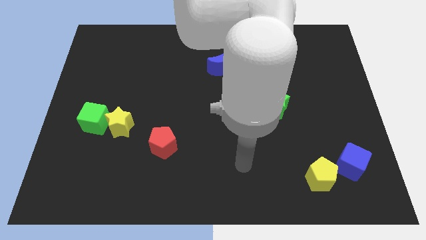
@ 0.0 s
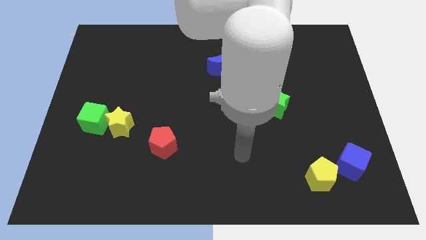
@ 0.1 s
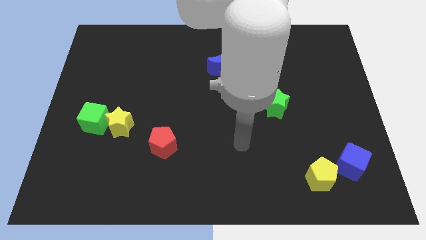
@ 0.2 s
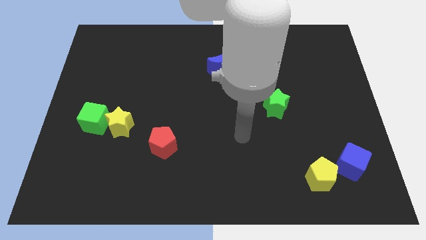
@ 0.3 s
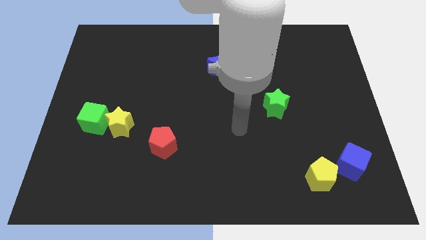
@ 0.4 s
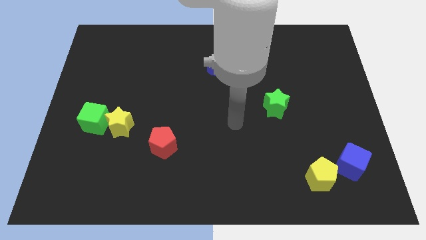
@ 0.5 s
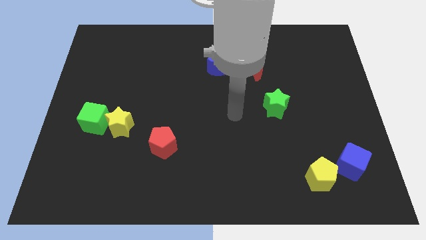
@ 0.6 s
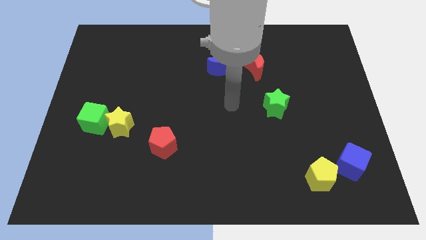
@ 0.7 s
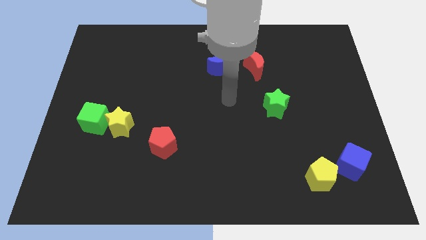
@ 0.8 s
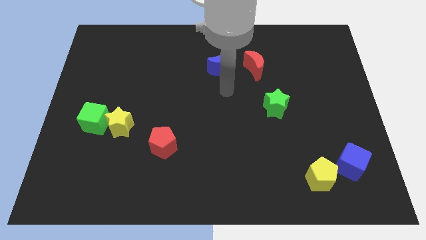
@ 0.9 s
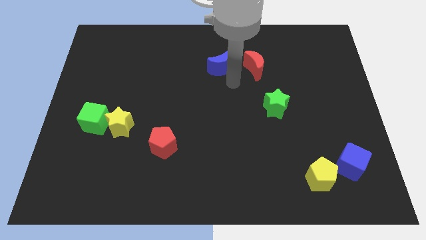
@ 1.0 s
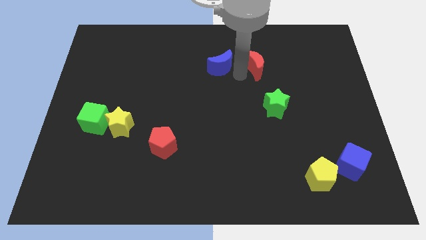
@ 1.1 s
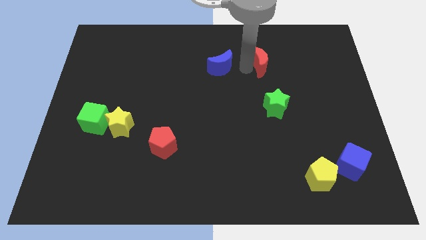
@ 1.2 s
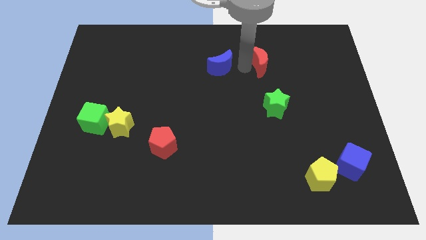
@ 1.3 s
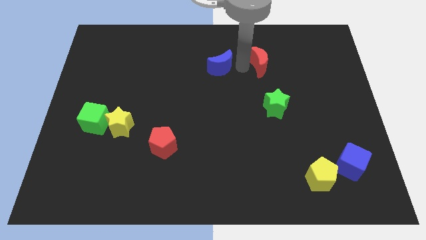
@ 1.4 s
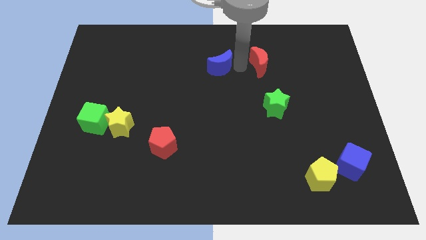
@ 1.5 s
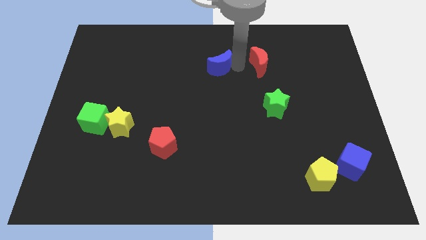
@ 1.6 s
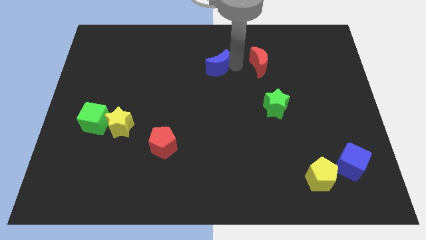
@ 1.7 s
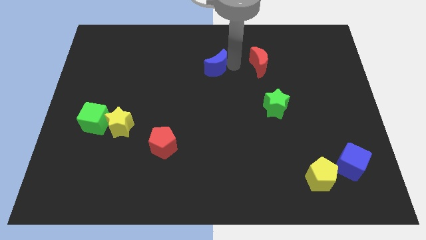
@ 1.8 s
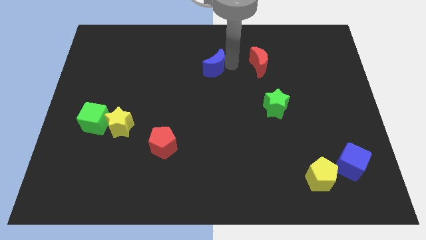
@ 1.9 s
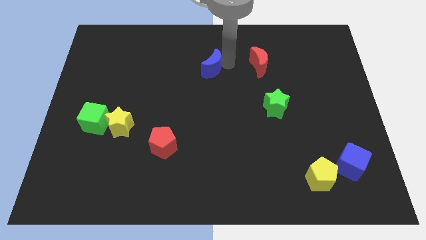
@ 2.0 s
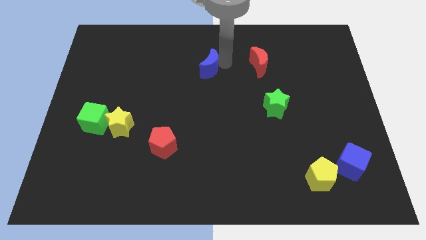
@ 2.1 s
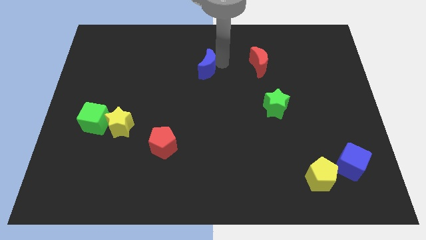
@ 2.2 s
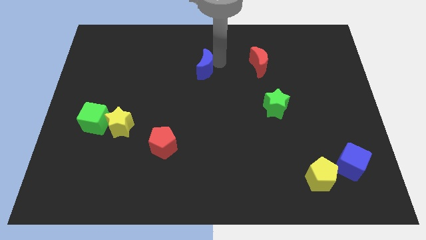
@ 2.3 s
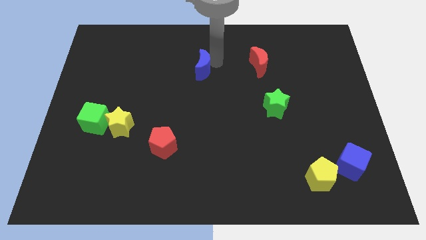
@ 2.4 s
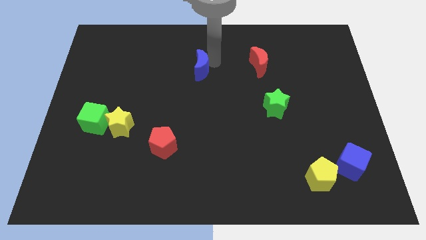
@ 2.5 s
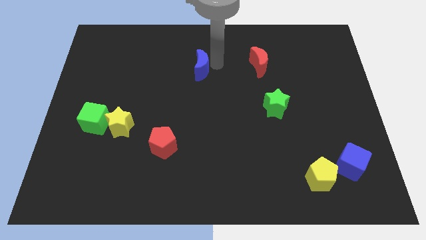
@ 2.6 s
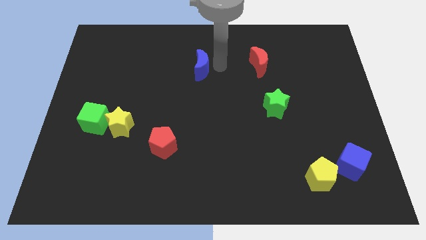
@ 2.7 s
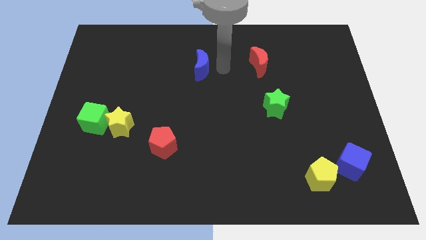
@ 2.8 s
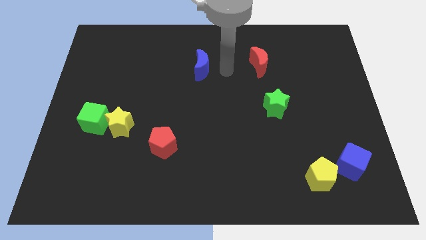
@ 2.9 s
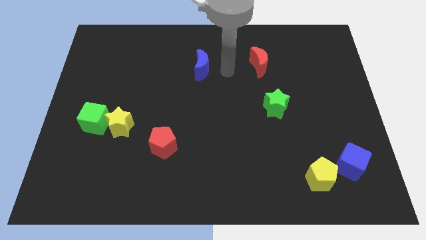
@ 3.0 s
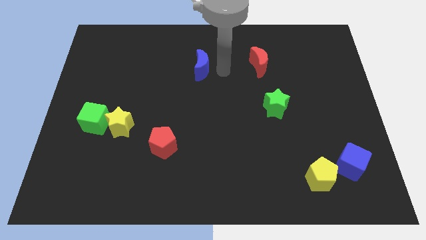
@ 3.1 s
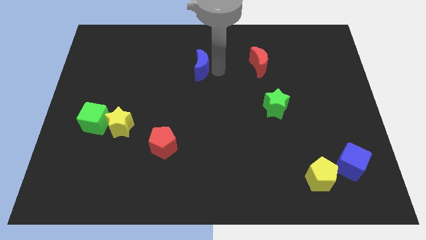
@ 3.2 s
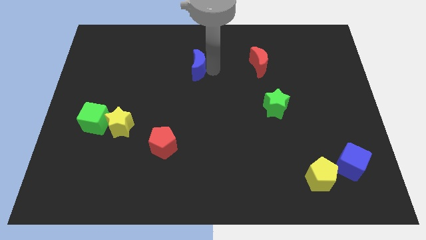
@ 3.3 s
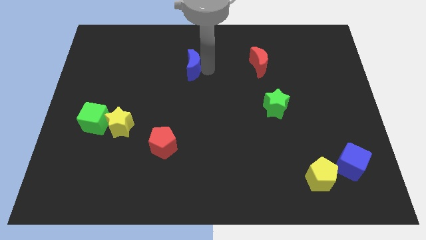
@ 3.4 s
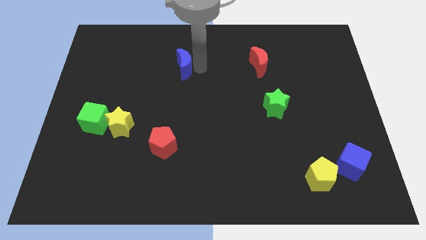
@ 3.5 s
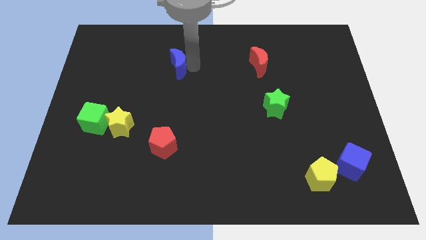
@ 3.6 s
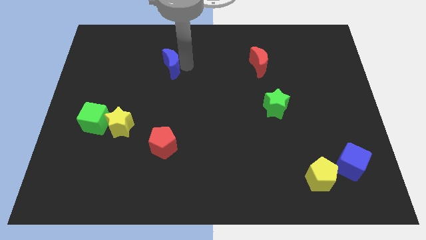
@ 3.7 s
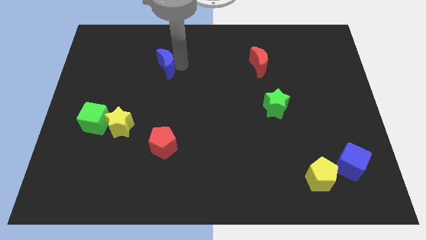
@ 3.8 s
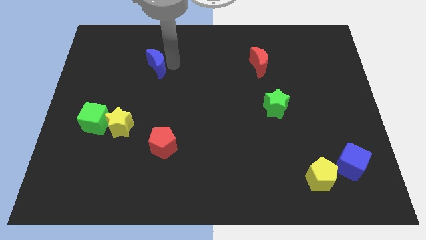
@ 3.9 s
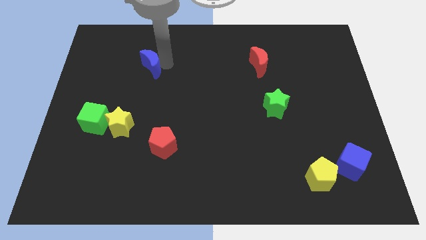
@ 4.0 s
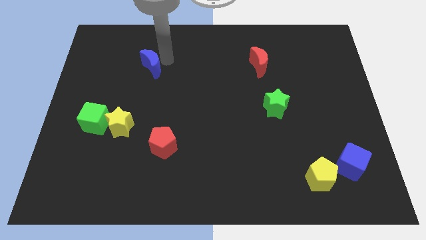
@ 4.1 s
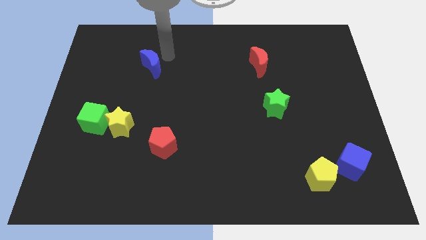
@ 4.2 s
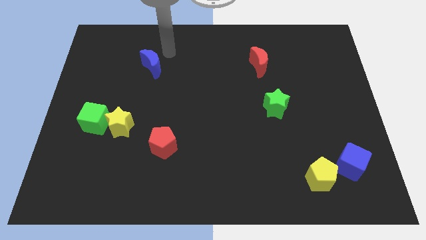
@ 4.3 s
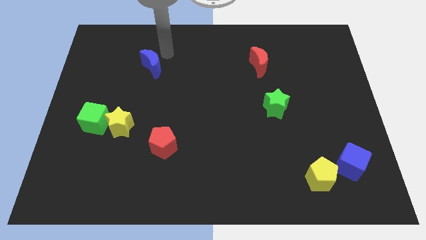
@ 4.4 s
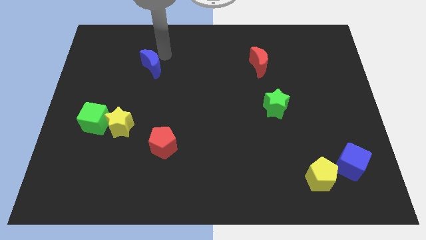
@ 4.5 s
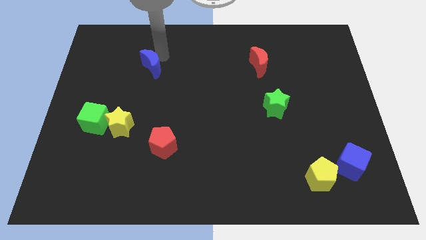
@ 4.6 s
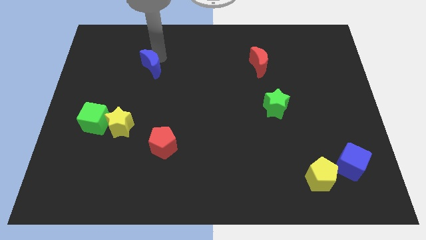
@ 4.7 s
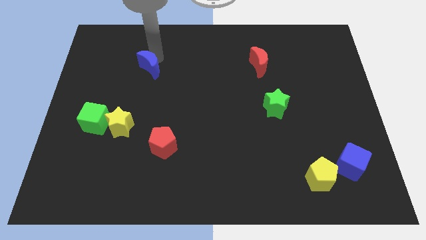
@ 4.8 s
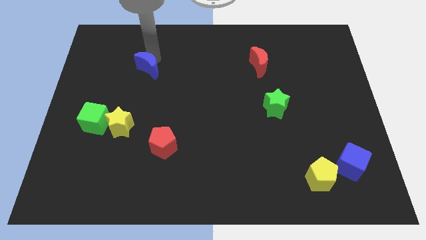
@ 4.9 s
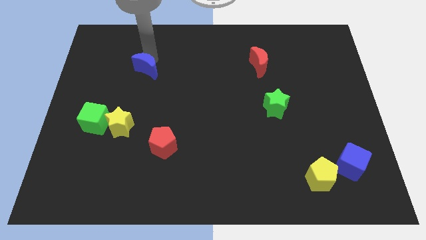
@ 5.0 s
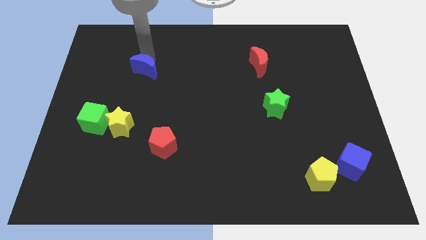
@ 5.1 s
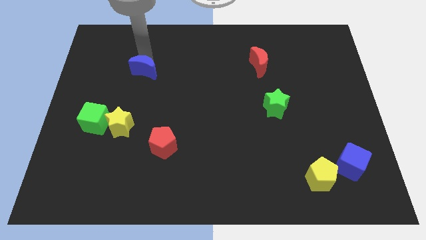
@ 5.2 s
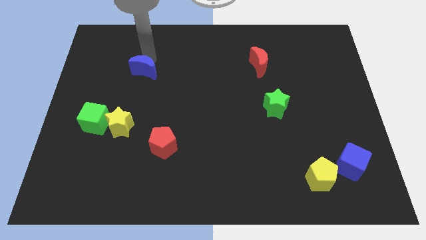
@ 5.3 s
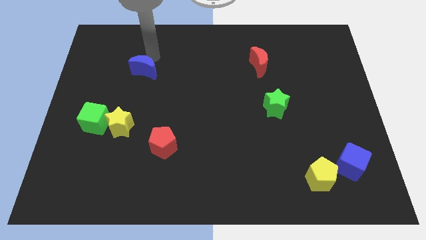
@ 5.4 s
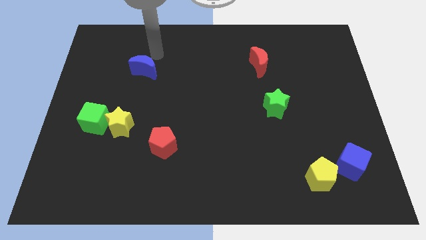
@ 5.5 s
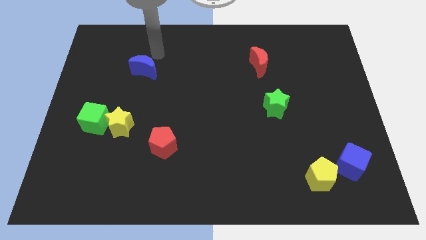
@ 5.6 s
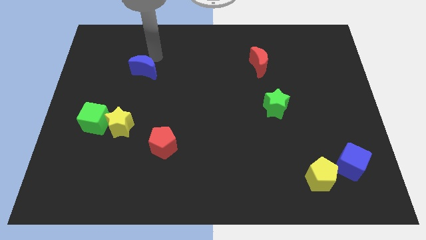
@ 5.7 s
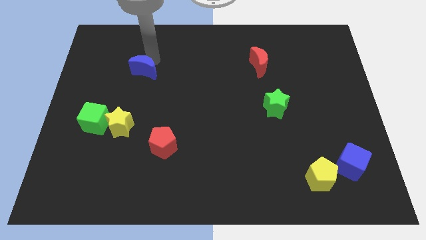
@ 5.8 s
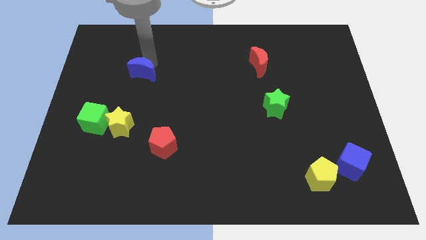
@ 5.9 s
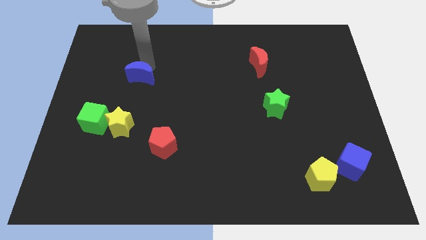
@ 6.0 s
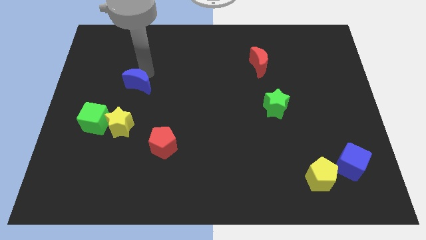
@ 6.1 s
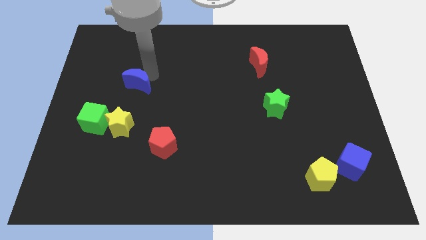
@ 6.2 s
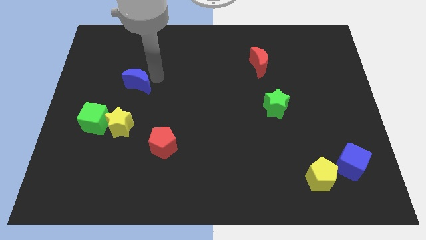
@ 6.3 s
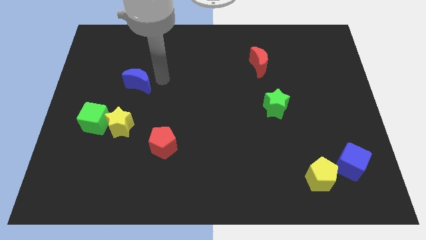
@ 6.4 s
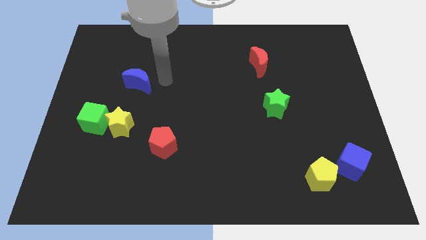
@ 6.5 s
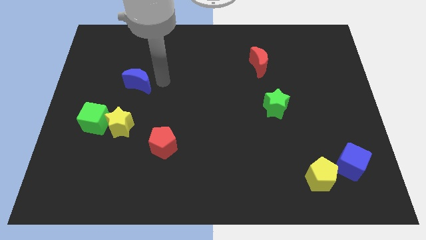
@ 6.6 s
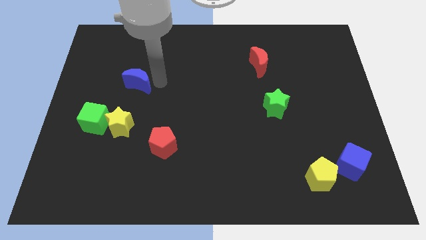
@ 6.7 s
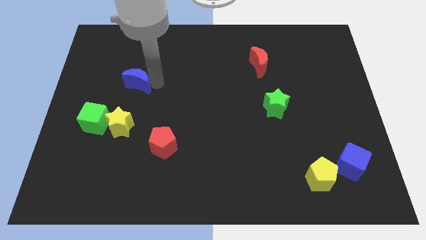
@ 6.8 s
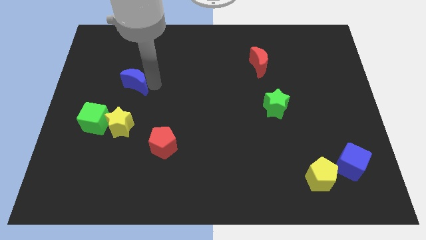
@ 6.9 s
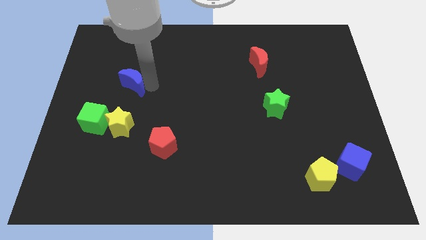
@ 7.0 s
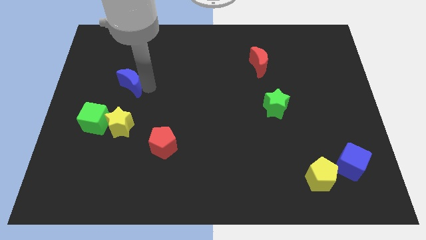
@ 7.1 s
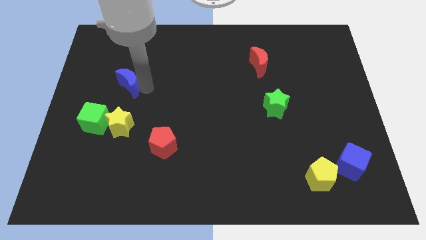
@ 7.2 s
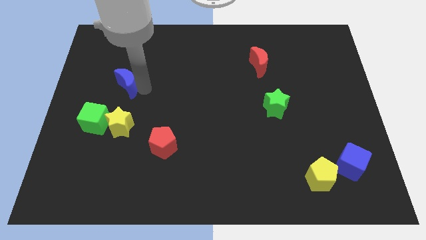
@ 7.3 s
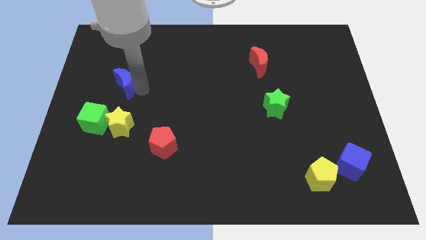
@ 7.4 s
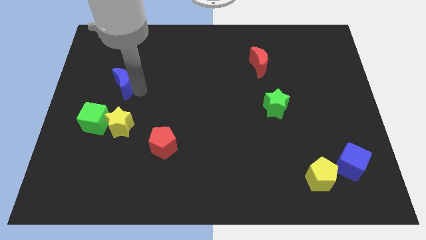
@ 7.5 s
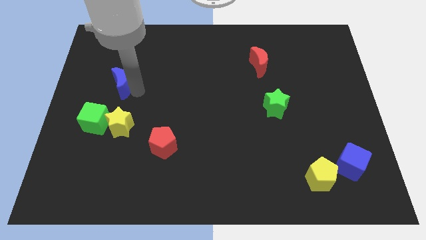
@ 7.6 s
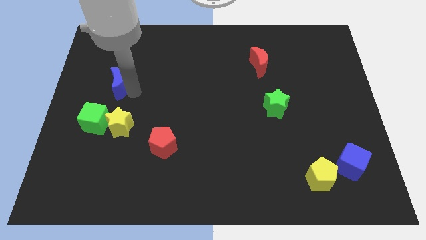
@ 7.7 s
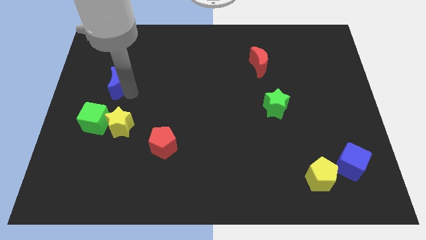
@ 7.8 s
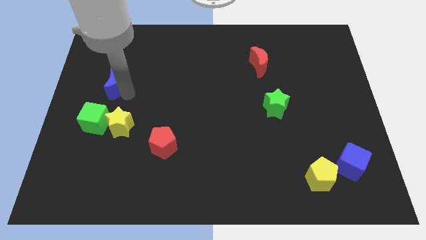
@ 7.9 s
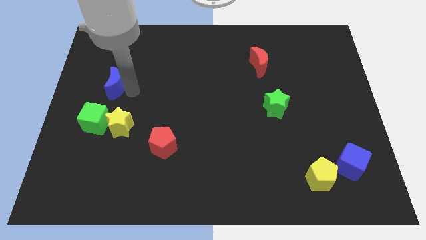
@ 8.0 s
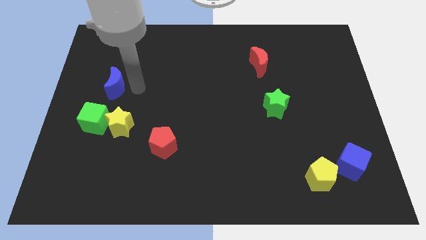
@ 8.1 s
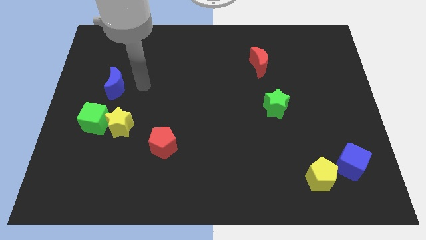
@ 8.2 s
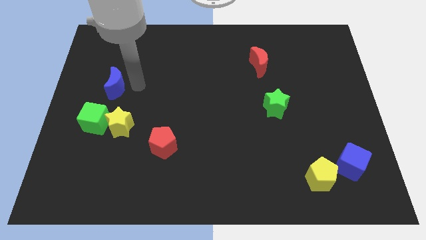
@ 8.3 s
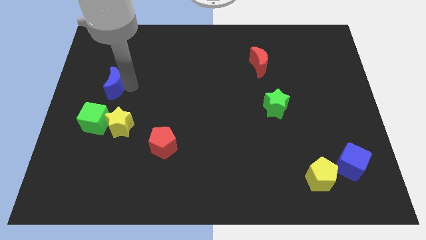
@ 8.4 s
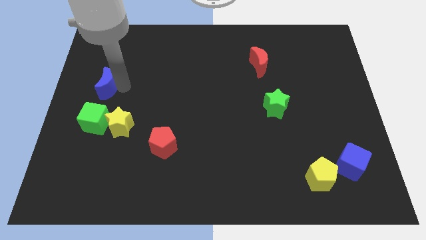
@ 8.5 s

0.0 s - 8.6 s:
slide the blue moon to the center left
